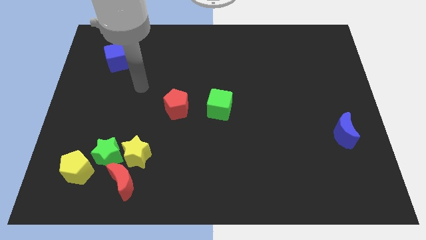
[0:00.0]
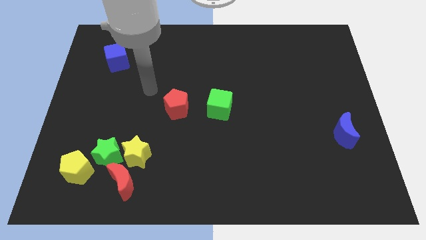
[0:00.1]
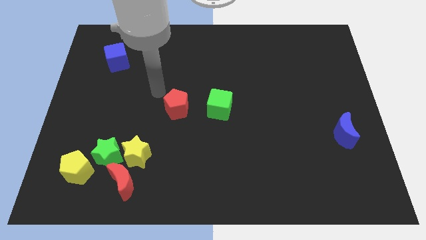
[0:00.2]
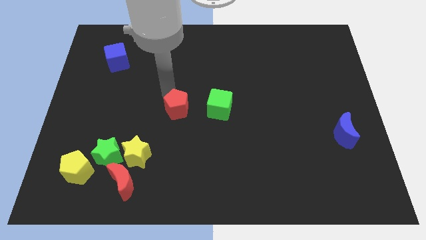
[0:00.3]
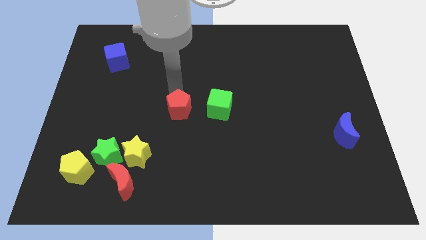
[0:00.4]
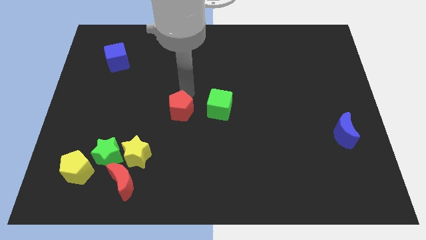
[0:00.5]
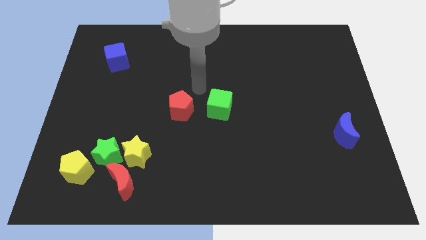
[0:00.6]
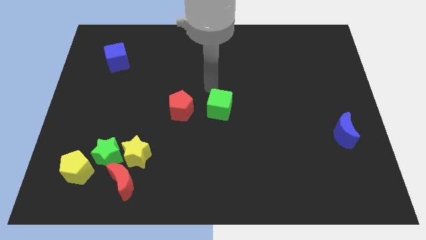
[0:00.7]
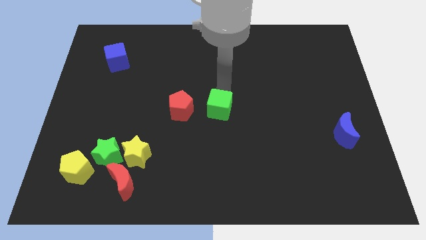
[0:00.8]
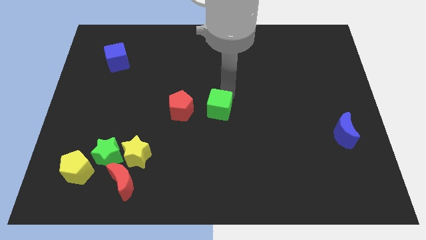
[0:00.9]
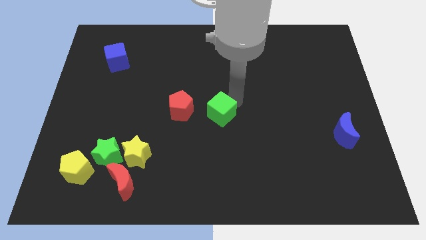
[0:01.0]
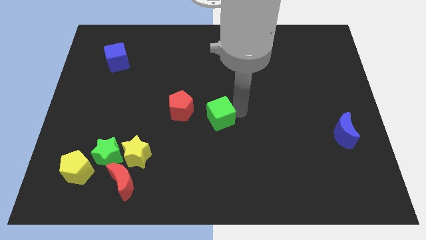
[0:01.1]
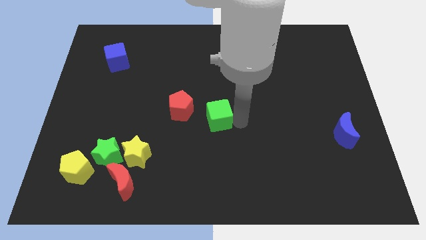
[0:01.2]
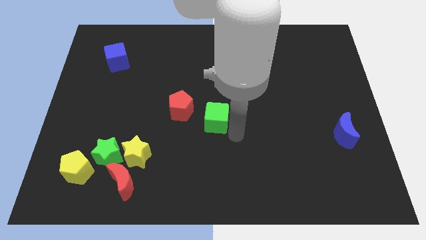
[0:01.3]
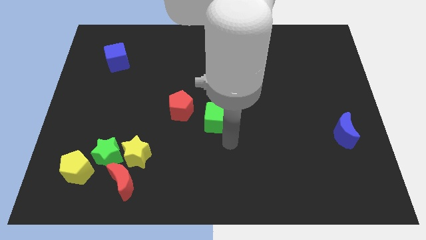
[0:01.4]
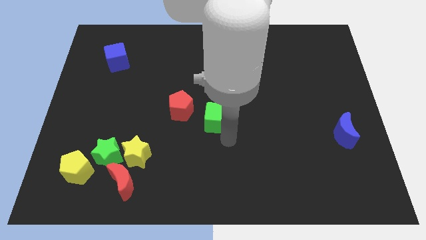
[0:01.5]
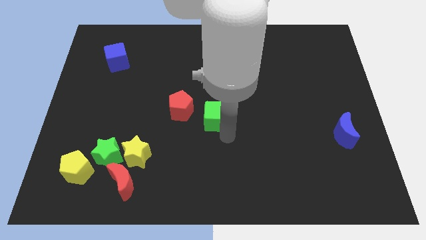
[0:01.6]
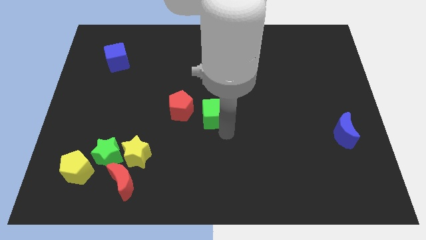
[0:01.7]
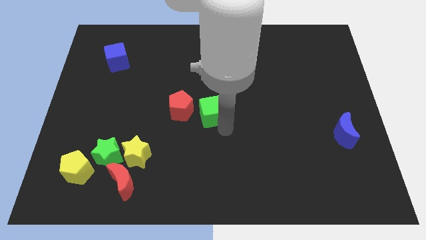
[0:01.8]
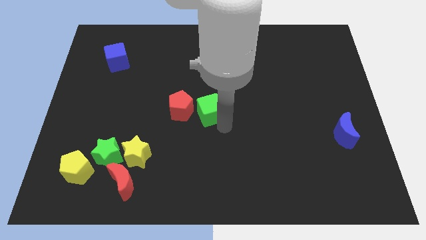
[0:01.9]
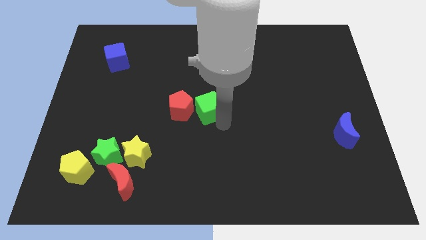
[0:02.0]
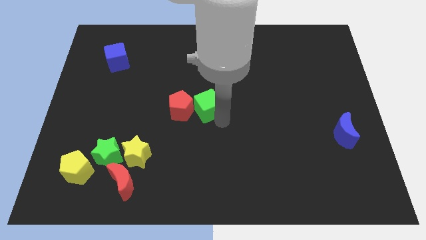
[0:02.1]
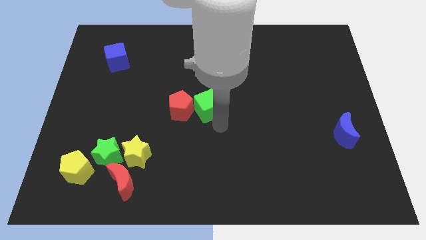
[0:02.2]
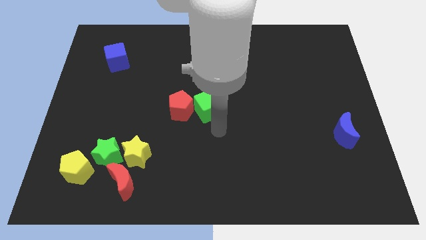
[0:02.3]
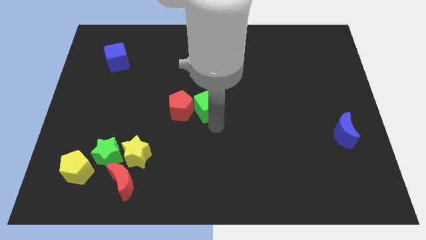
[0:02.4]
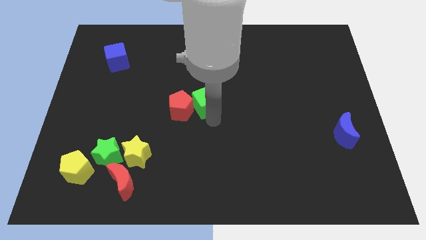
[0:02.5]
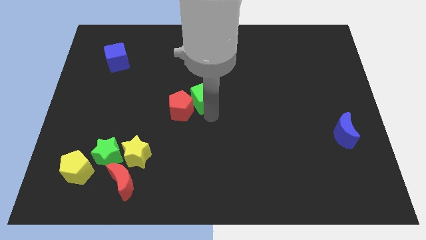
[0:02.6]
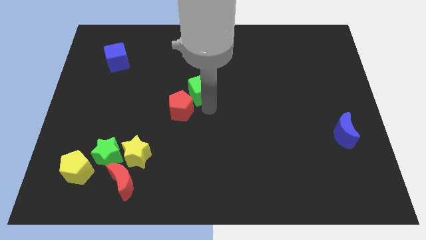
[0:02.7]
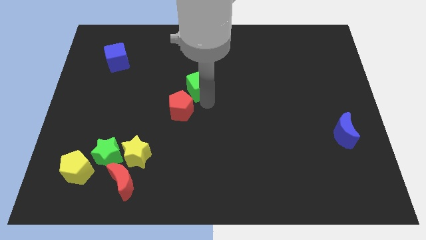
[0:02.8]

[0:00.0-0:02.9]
slightly slide the green cube diagonally up and left

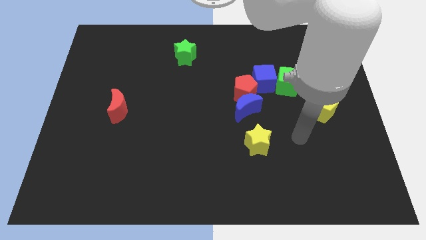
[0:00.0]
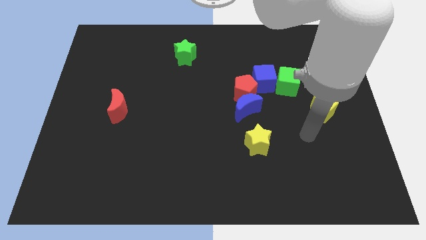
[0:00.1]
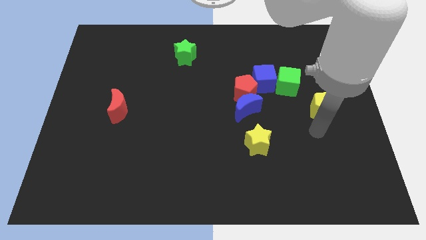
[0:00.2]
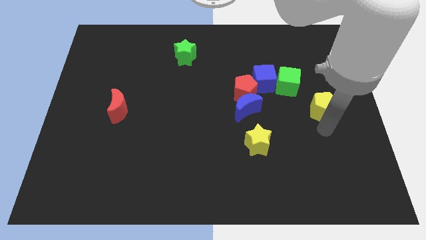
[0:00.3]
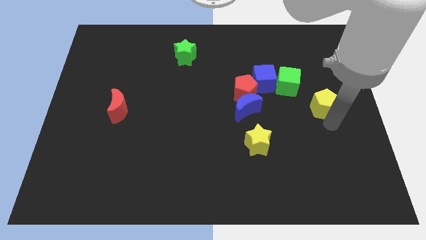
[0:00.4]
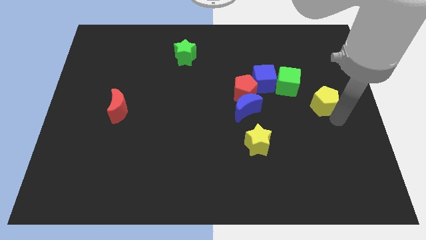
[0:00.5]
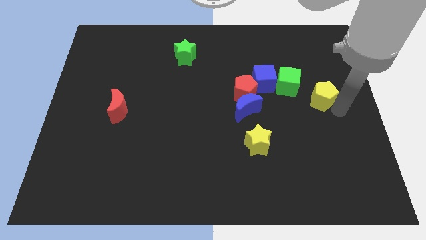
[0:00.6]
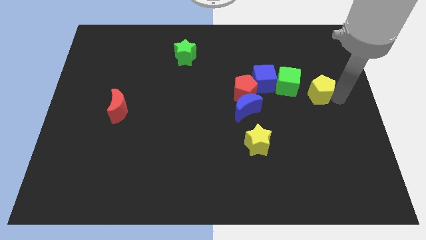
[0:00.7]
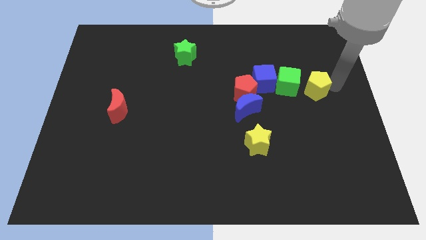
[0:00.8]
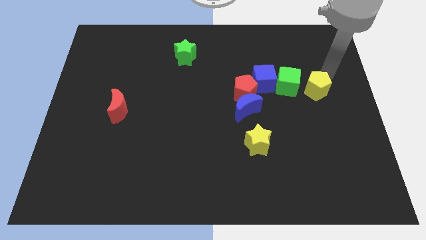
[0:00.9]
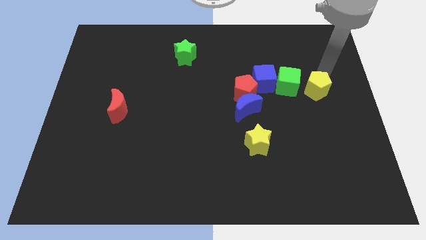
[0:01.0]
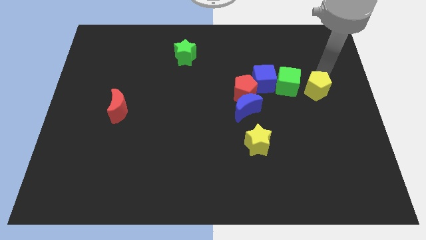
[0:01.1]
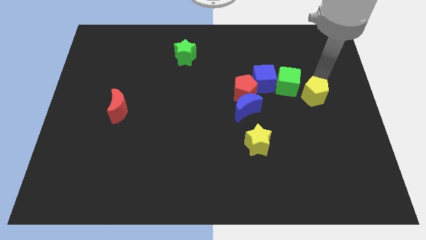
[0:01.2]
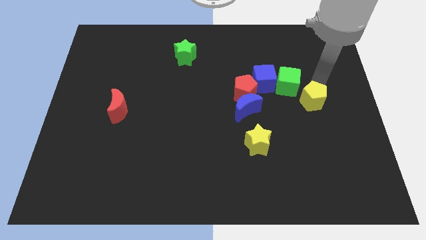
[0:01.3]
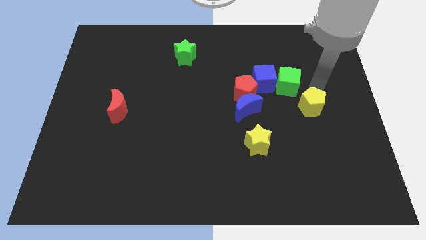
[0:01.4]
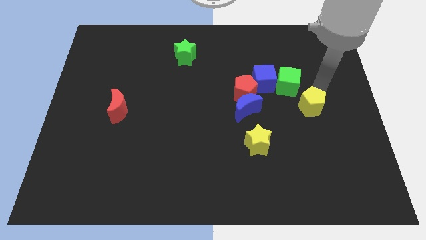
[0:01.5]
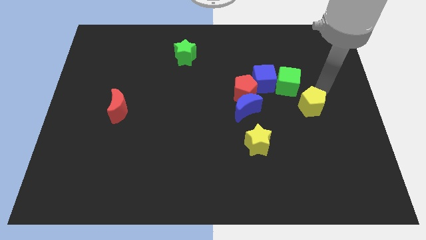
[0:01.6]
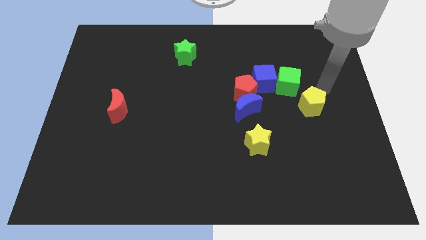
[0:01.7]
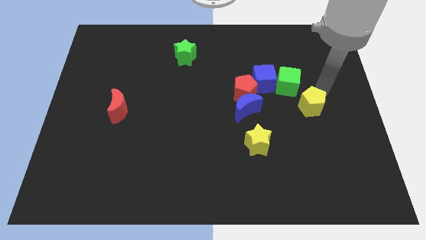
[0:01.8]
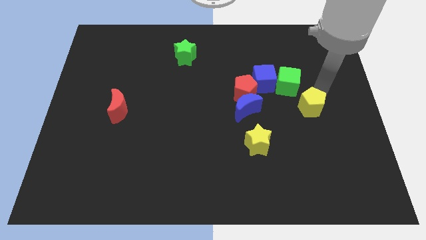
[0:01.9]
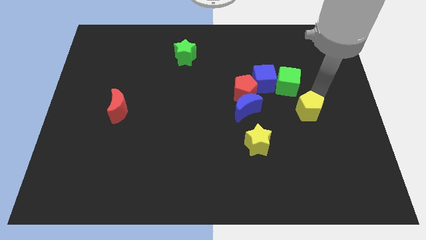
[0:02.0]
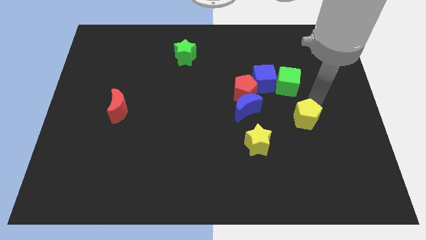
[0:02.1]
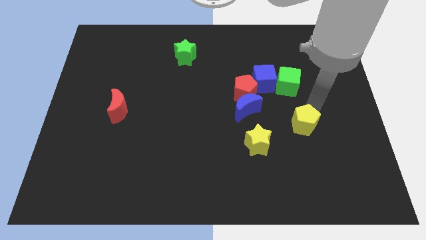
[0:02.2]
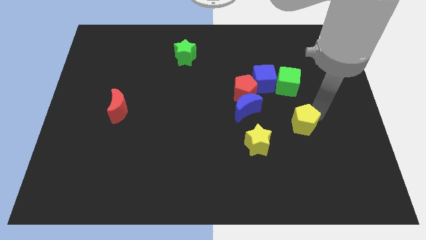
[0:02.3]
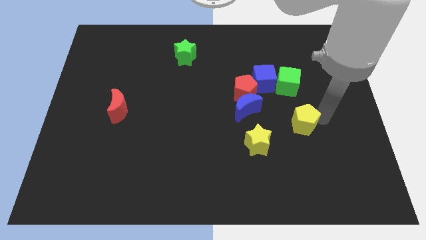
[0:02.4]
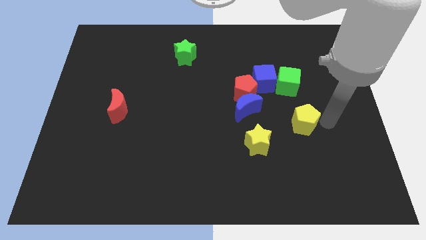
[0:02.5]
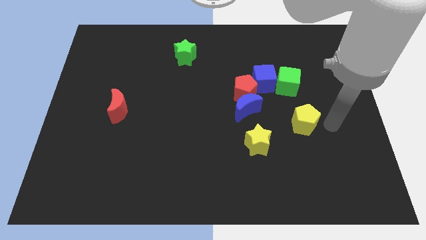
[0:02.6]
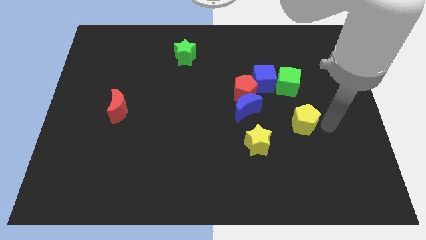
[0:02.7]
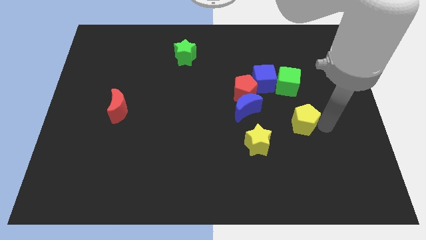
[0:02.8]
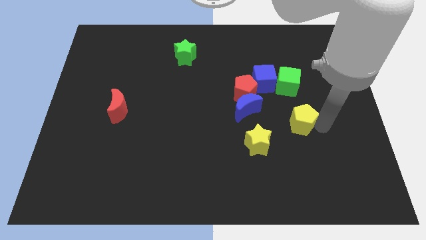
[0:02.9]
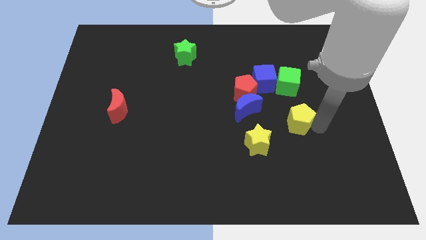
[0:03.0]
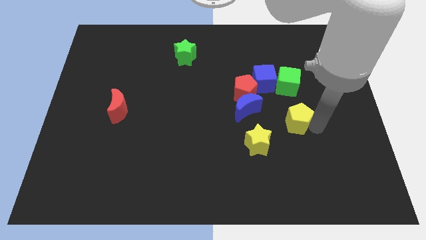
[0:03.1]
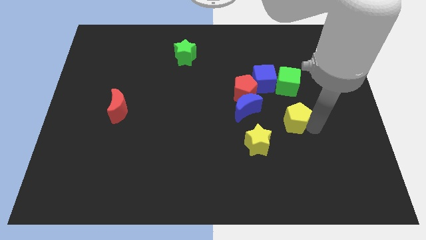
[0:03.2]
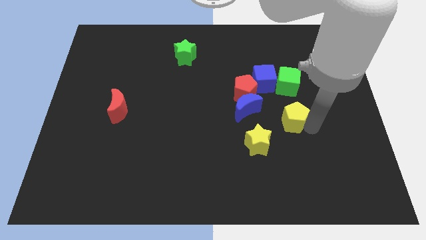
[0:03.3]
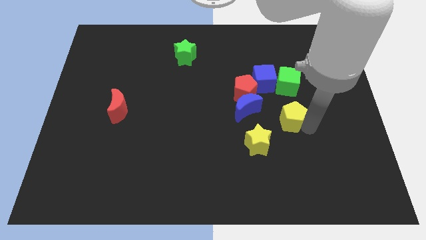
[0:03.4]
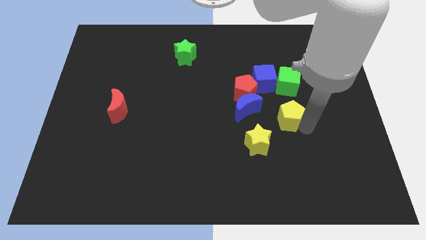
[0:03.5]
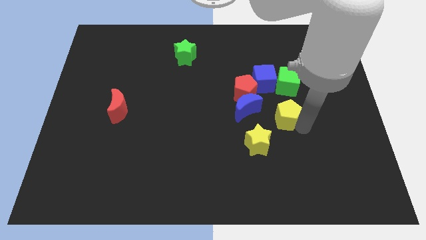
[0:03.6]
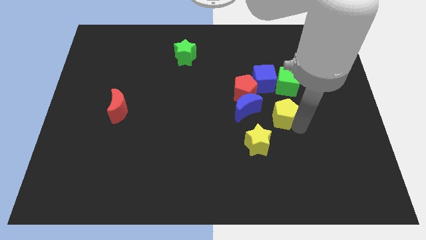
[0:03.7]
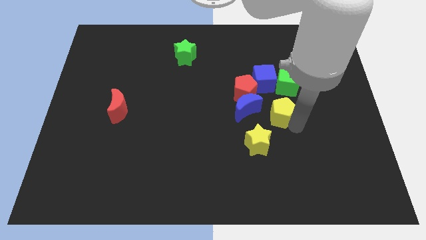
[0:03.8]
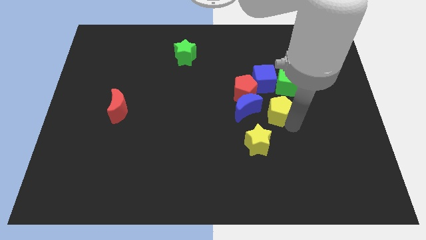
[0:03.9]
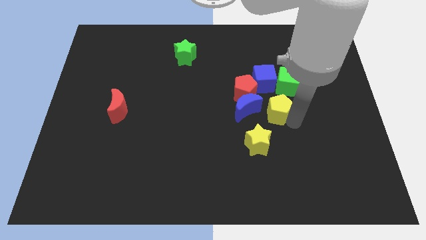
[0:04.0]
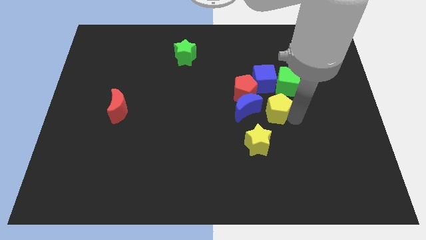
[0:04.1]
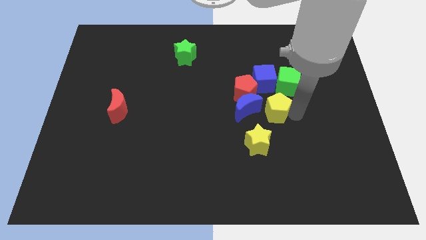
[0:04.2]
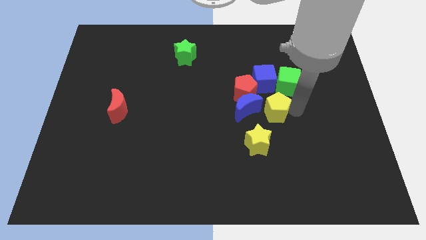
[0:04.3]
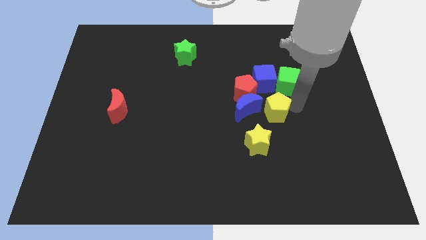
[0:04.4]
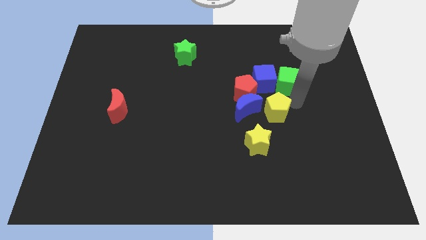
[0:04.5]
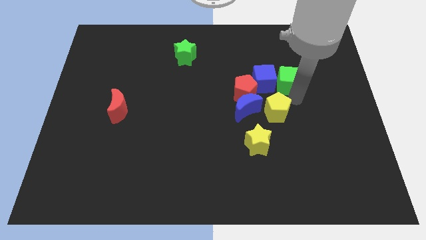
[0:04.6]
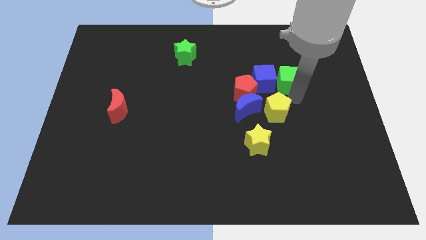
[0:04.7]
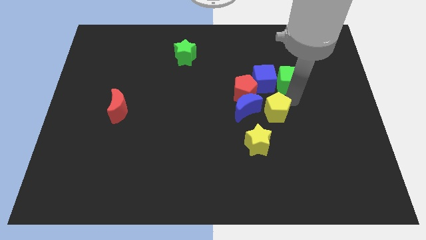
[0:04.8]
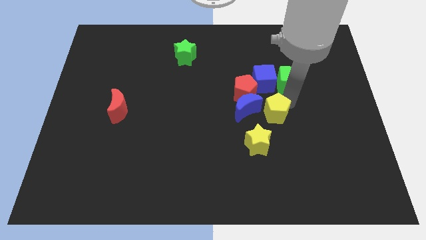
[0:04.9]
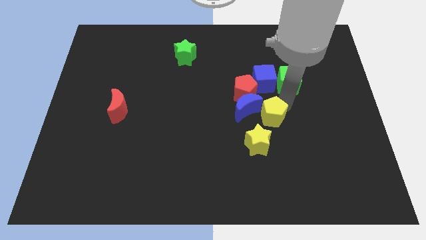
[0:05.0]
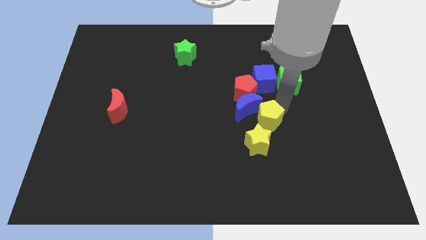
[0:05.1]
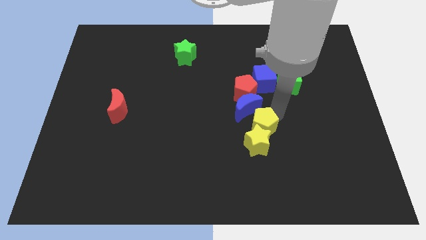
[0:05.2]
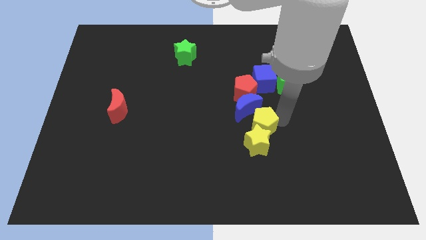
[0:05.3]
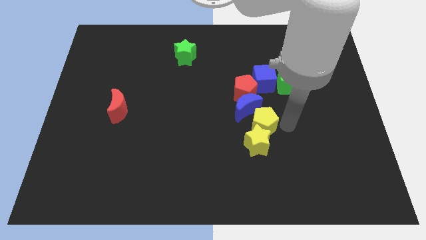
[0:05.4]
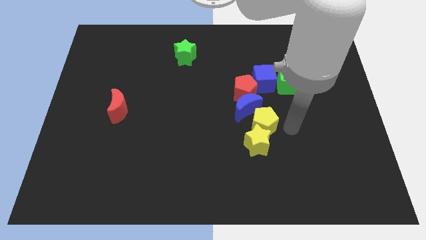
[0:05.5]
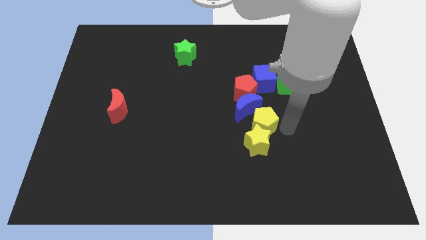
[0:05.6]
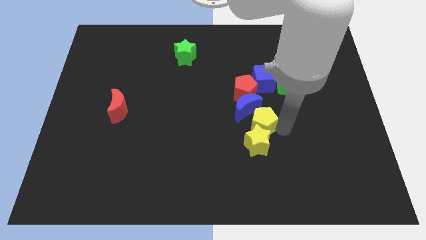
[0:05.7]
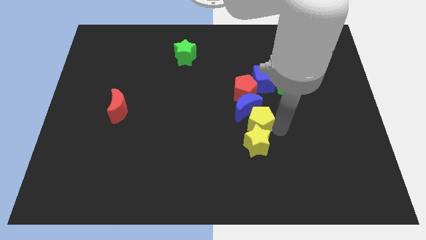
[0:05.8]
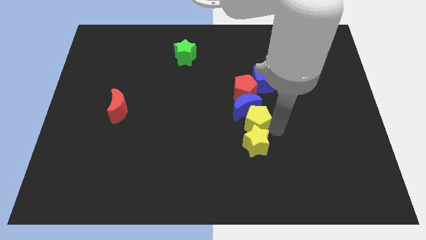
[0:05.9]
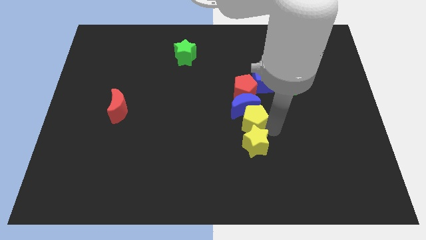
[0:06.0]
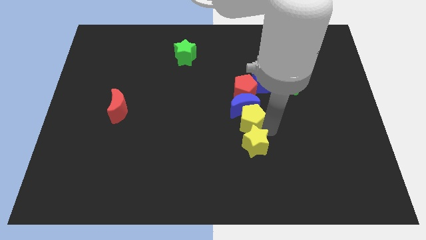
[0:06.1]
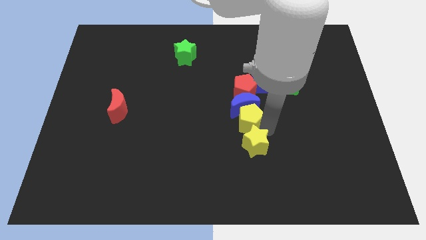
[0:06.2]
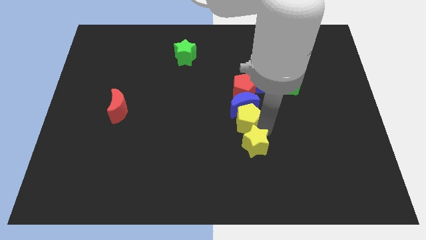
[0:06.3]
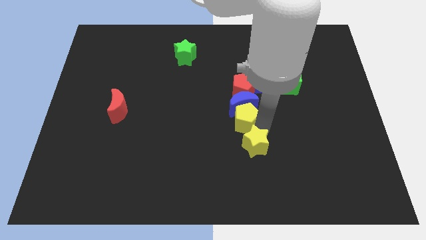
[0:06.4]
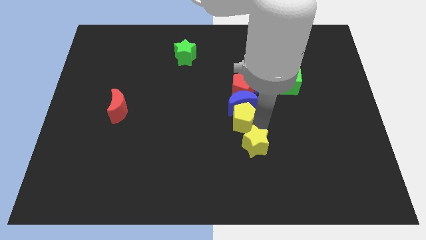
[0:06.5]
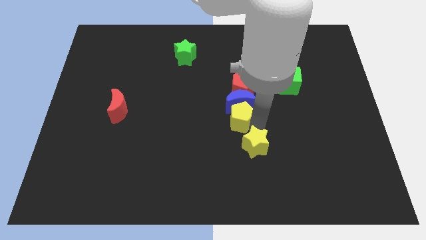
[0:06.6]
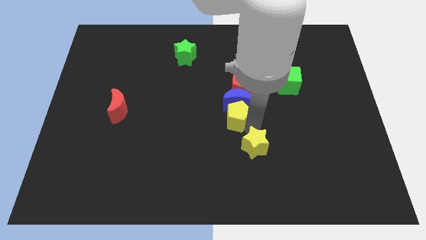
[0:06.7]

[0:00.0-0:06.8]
push the yellow pentagon to the left
